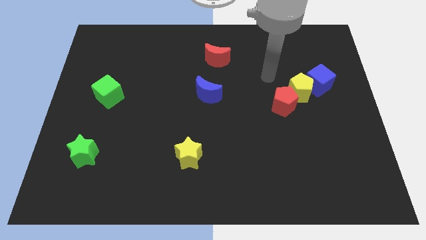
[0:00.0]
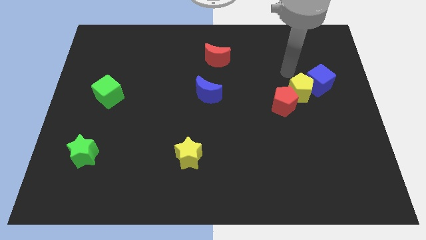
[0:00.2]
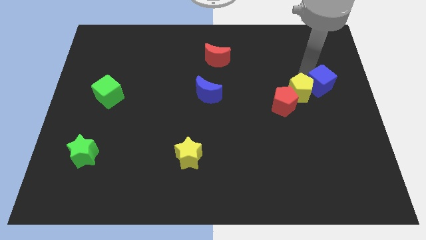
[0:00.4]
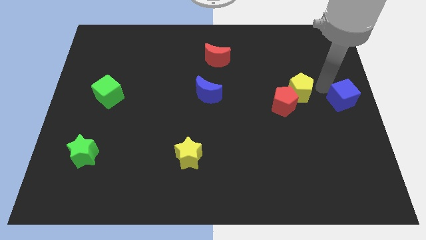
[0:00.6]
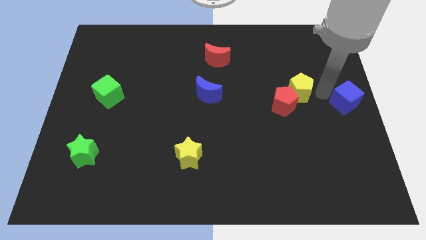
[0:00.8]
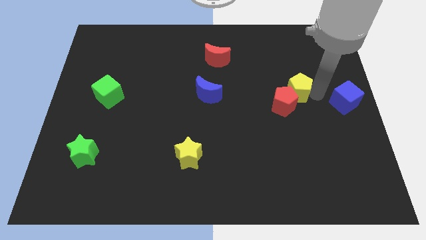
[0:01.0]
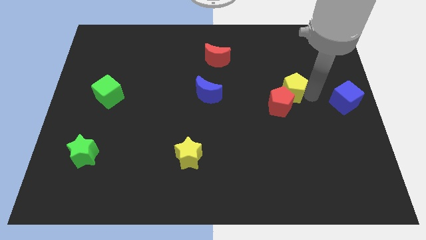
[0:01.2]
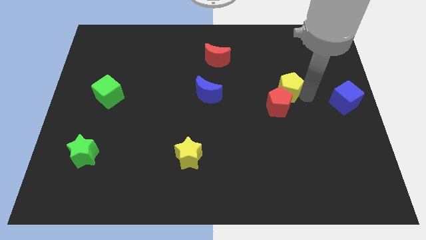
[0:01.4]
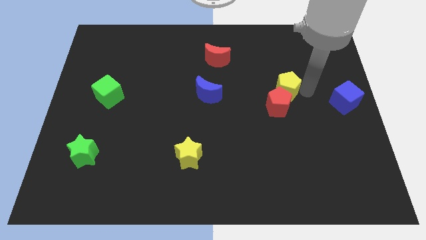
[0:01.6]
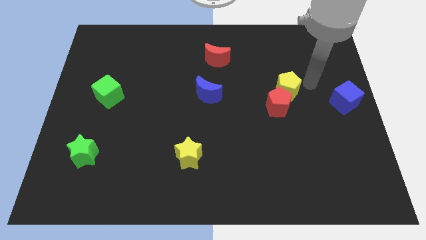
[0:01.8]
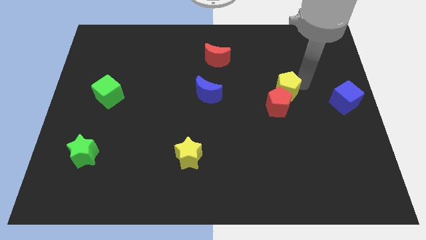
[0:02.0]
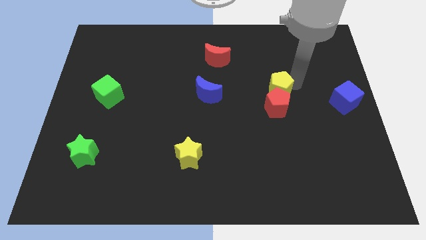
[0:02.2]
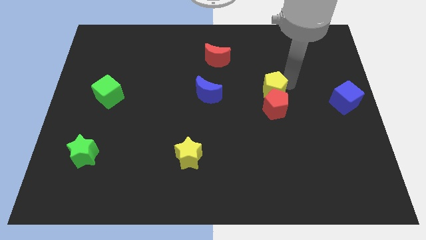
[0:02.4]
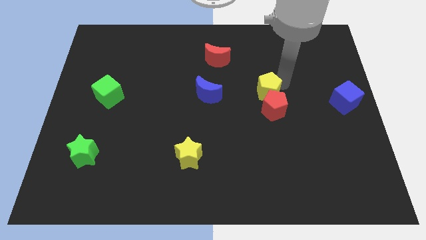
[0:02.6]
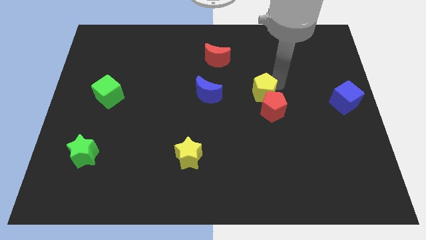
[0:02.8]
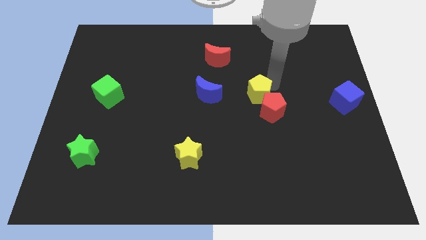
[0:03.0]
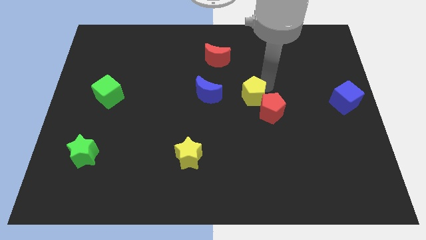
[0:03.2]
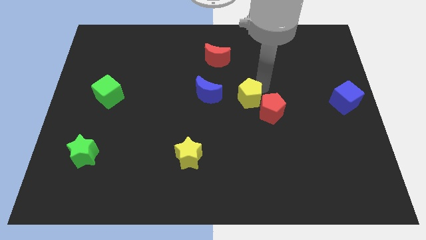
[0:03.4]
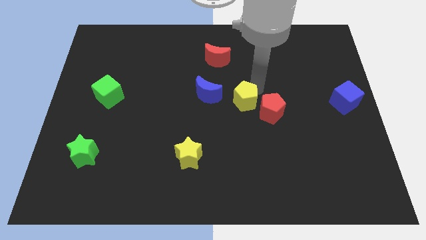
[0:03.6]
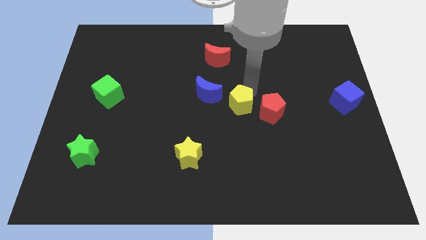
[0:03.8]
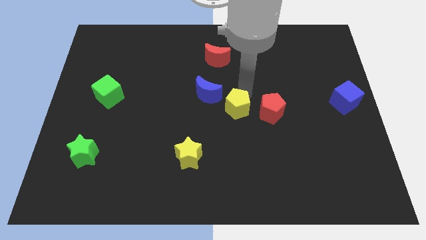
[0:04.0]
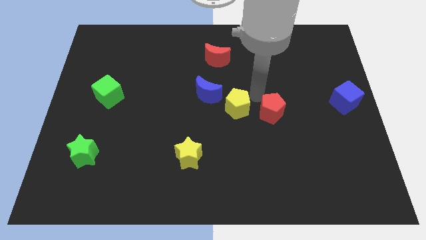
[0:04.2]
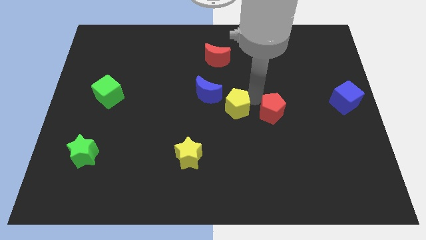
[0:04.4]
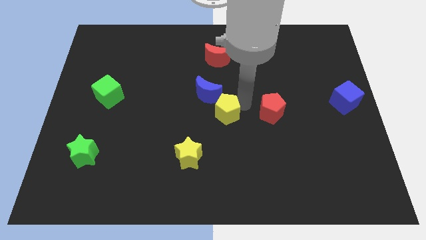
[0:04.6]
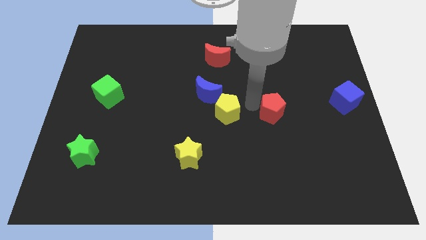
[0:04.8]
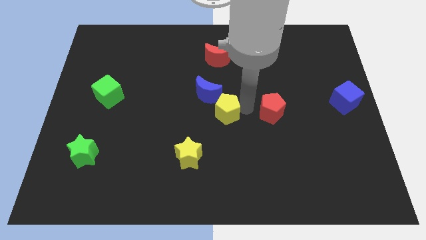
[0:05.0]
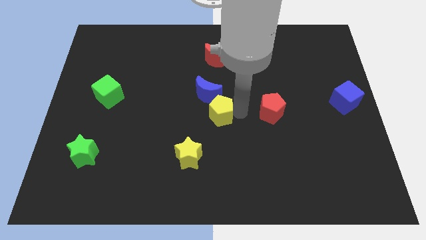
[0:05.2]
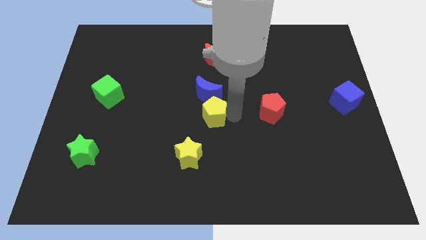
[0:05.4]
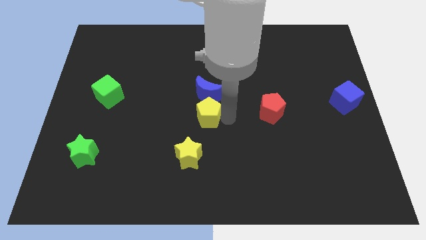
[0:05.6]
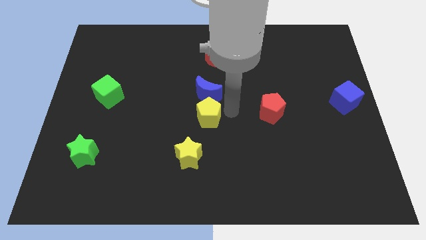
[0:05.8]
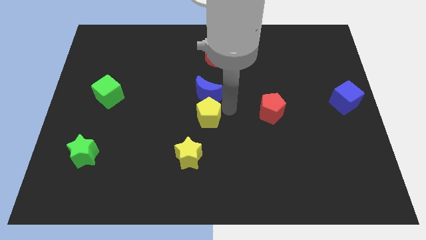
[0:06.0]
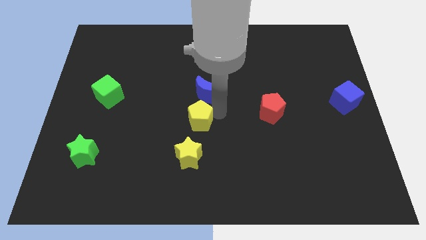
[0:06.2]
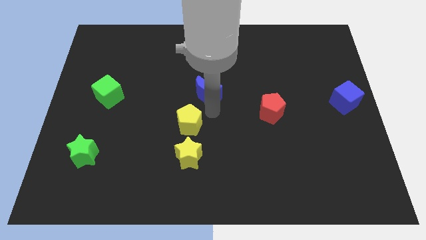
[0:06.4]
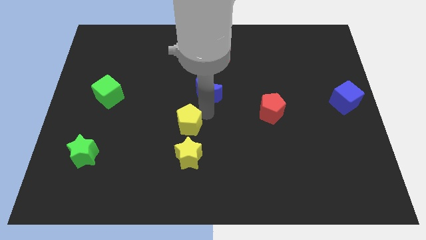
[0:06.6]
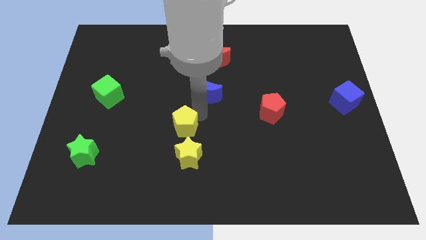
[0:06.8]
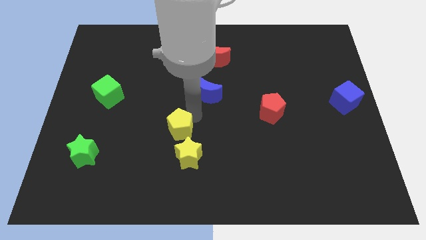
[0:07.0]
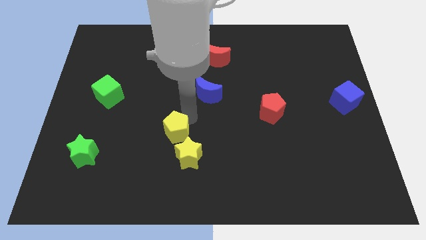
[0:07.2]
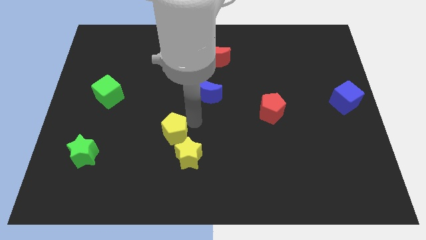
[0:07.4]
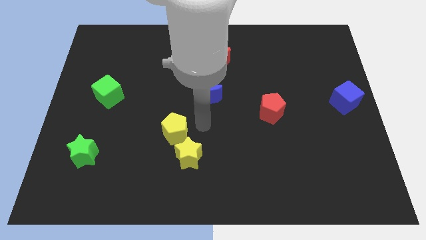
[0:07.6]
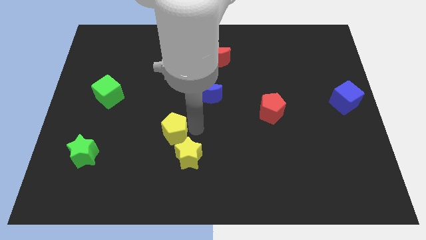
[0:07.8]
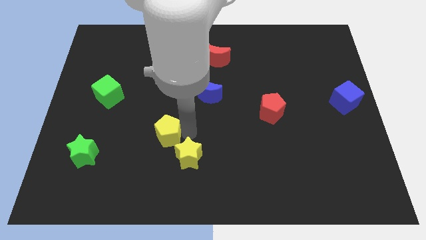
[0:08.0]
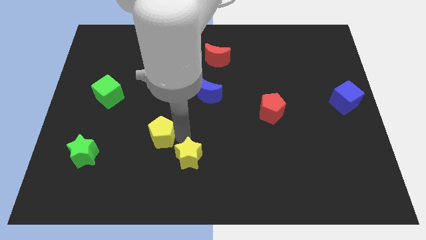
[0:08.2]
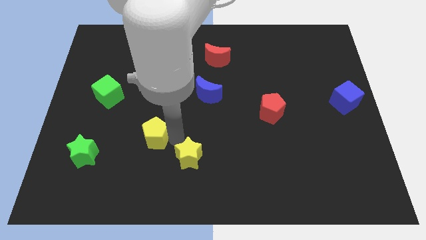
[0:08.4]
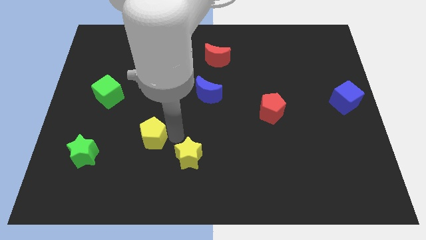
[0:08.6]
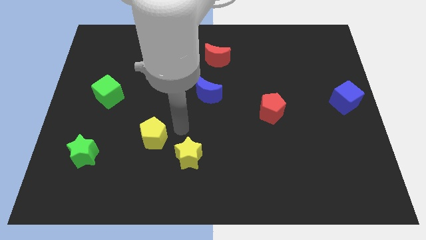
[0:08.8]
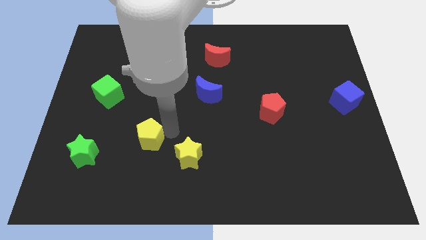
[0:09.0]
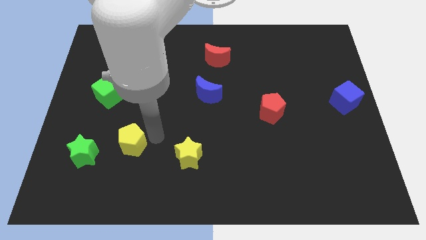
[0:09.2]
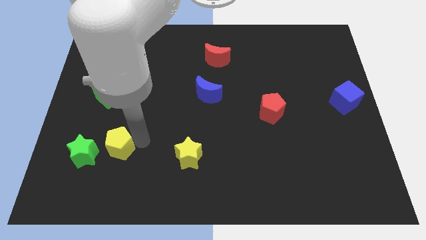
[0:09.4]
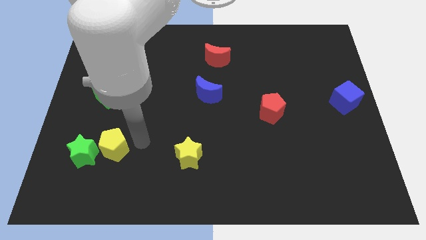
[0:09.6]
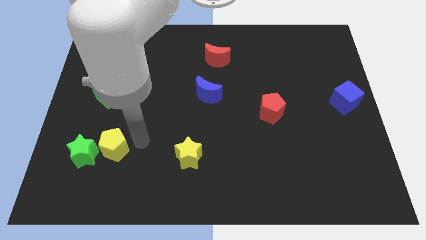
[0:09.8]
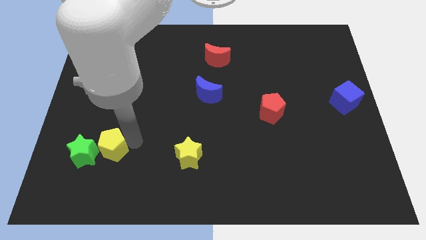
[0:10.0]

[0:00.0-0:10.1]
push the yellow pentagon towards the green star

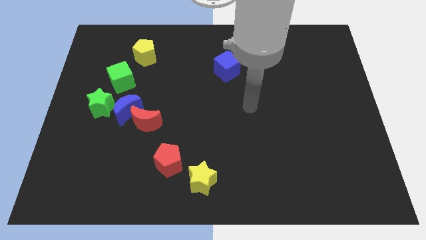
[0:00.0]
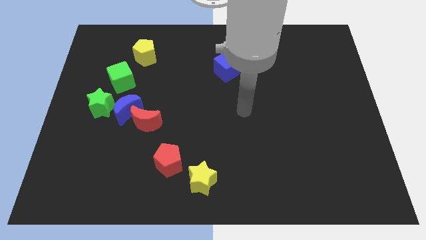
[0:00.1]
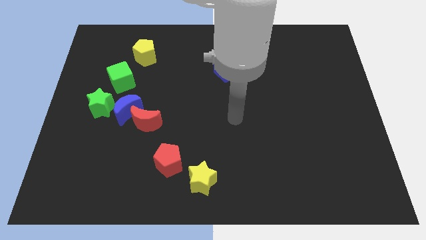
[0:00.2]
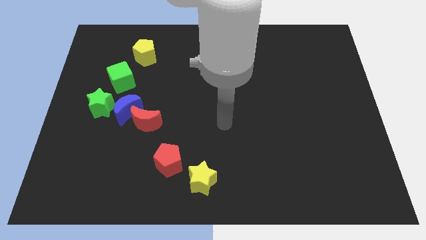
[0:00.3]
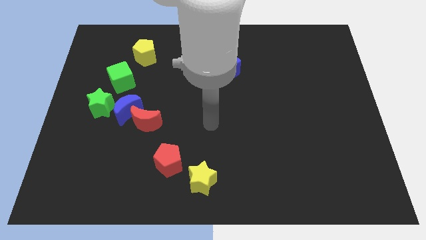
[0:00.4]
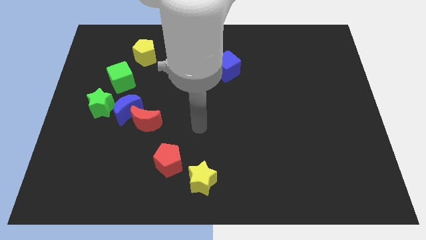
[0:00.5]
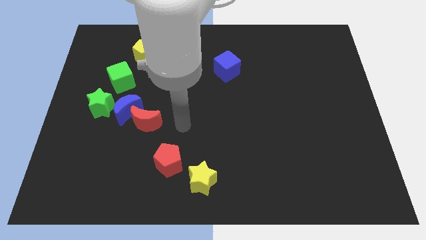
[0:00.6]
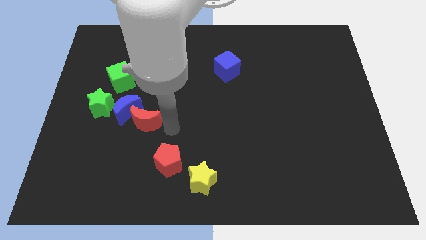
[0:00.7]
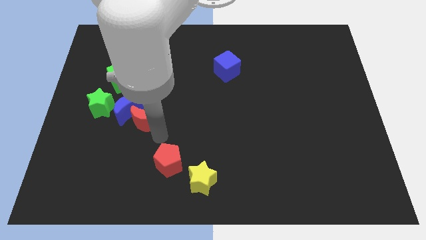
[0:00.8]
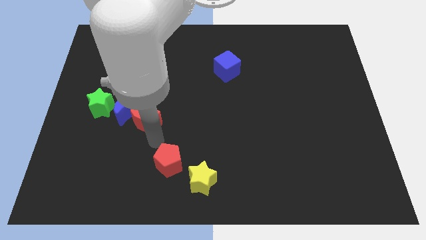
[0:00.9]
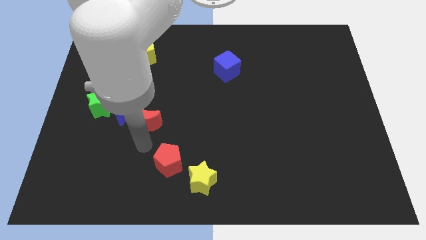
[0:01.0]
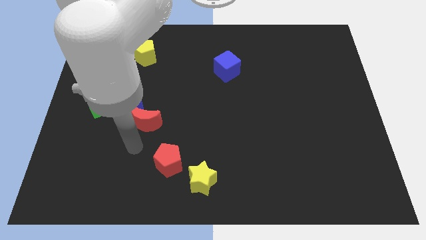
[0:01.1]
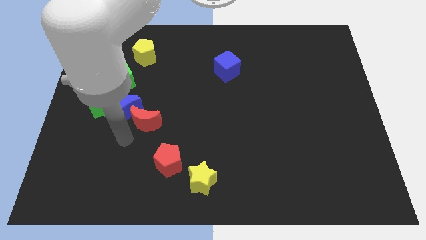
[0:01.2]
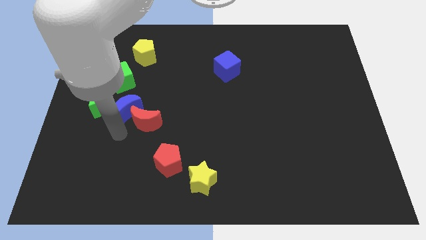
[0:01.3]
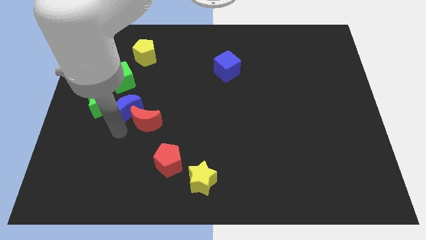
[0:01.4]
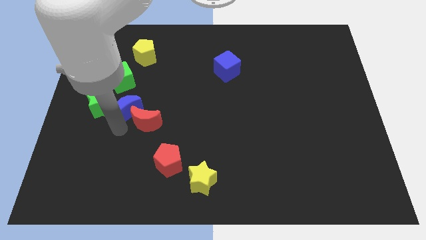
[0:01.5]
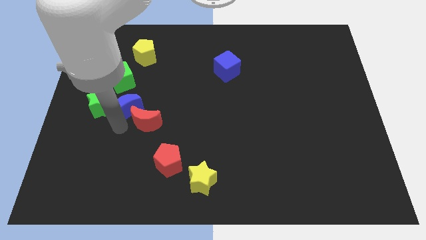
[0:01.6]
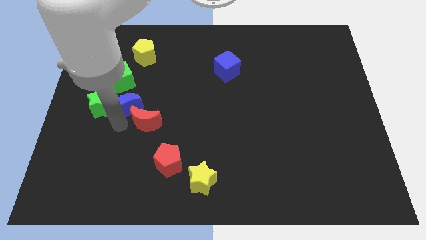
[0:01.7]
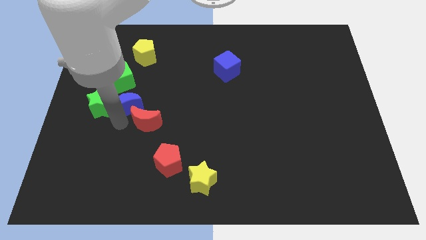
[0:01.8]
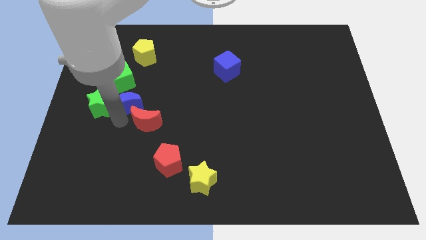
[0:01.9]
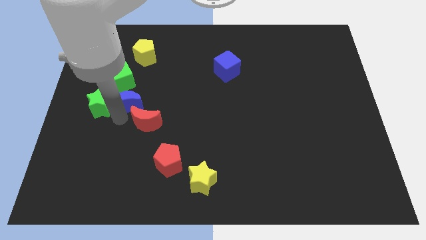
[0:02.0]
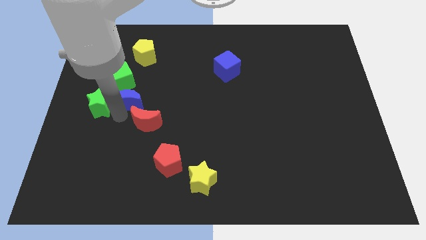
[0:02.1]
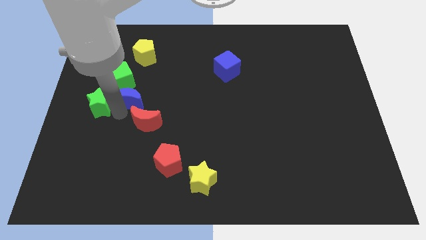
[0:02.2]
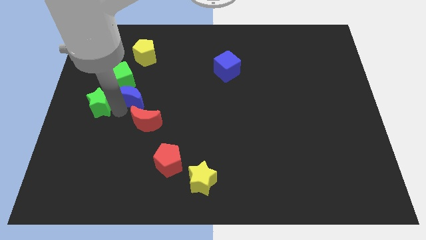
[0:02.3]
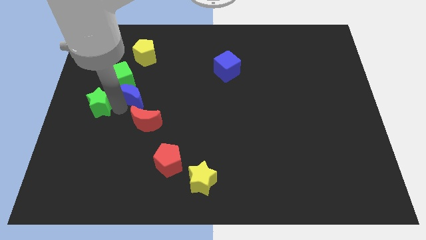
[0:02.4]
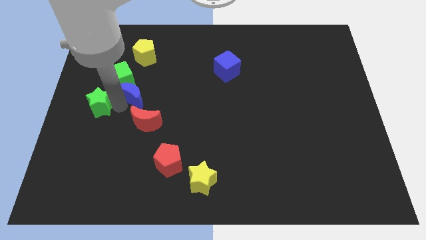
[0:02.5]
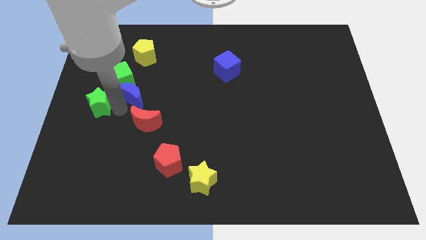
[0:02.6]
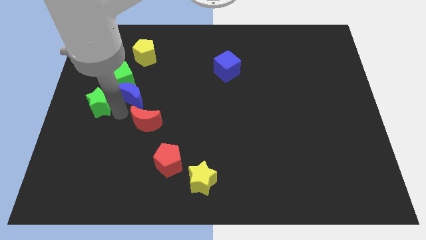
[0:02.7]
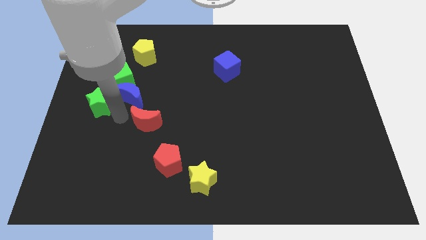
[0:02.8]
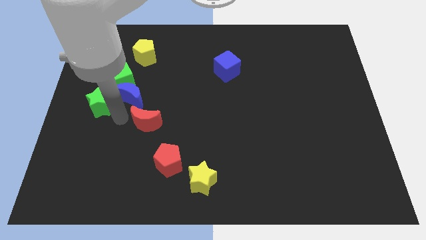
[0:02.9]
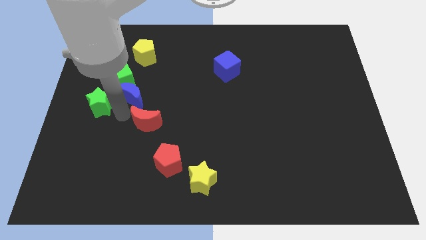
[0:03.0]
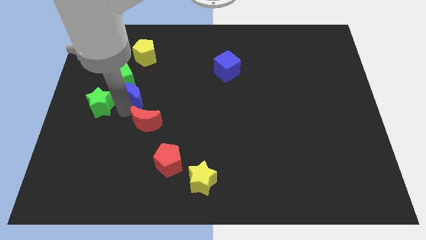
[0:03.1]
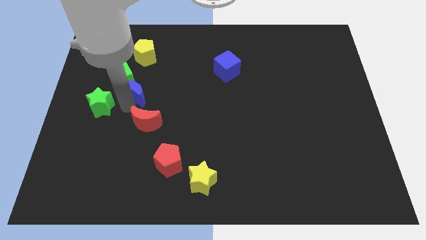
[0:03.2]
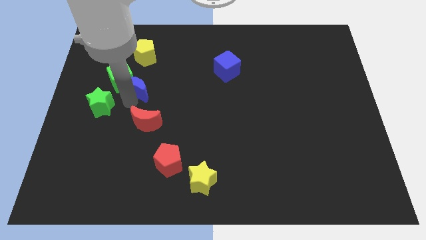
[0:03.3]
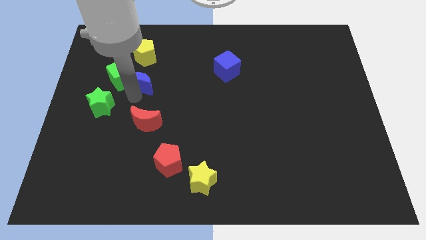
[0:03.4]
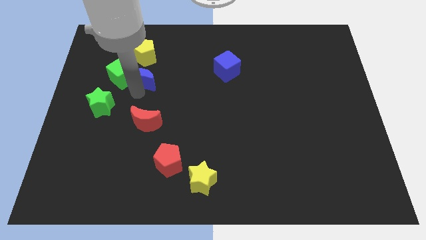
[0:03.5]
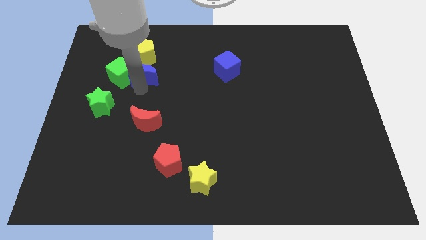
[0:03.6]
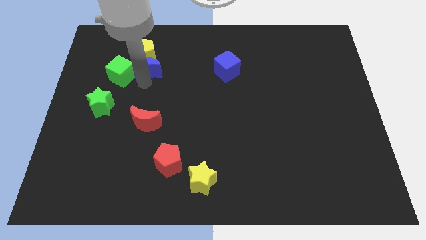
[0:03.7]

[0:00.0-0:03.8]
put the blue moon to the yellow pentagon
